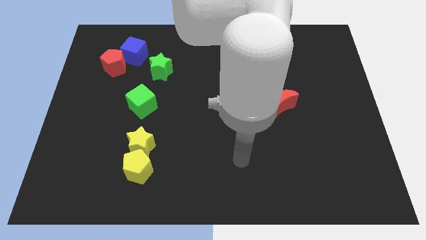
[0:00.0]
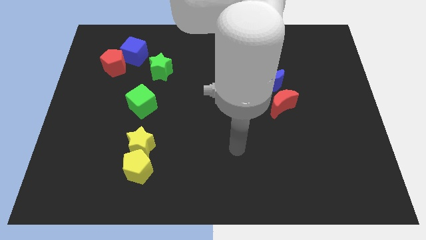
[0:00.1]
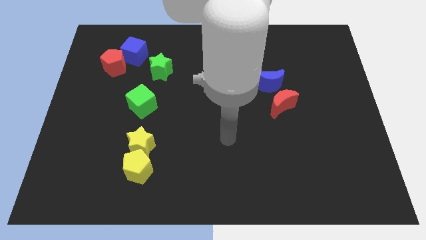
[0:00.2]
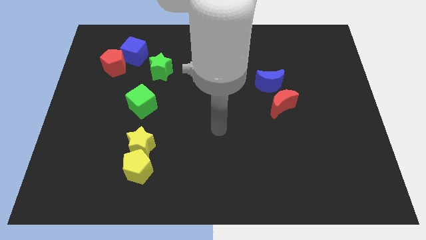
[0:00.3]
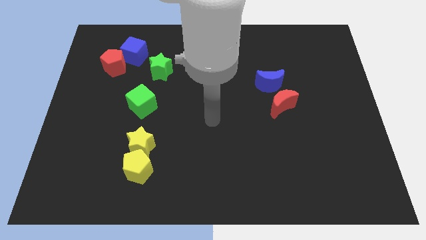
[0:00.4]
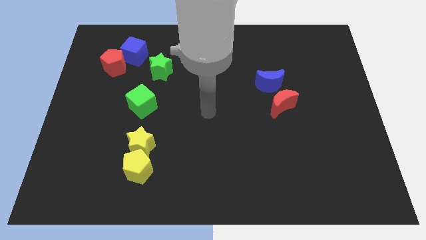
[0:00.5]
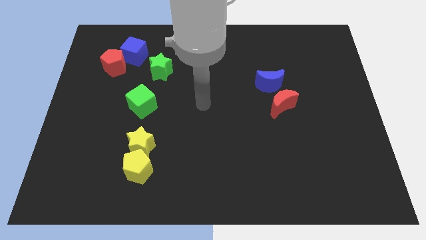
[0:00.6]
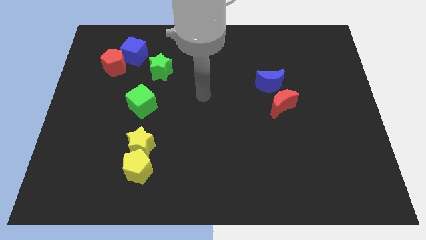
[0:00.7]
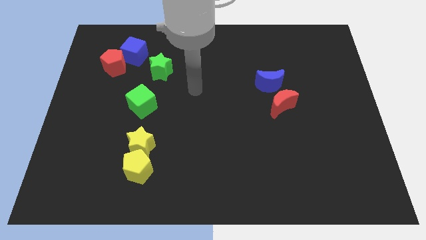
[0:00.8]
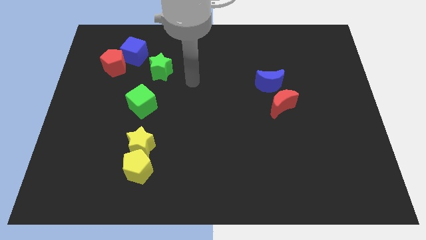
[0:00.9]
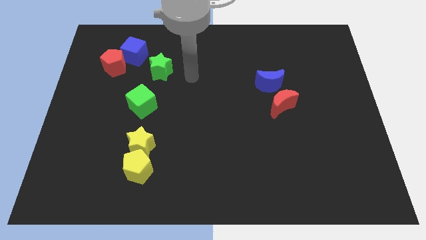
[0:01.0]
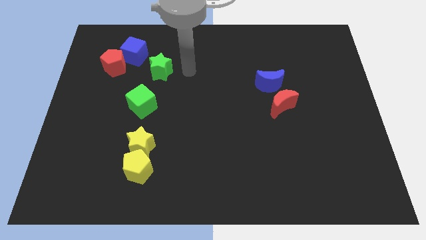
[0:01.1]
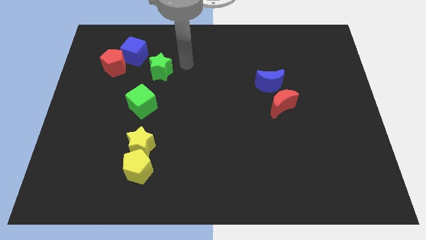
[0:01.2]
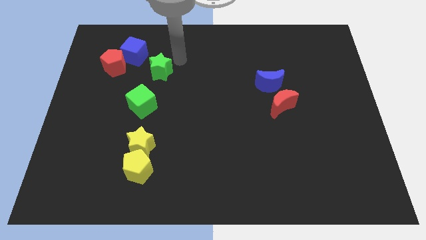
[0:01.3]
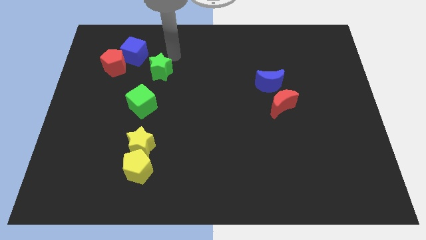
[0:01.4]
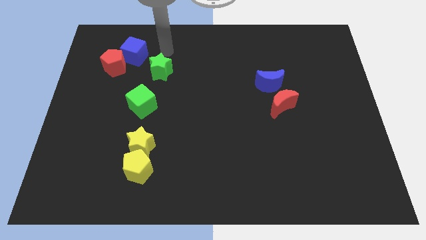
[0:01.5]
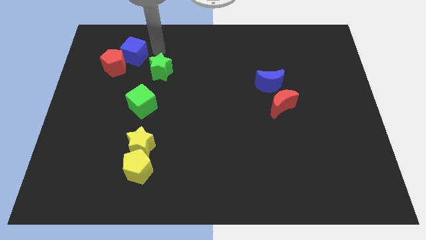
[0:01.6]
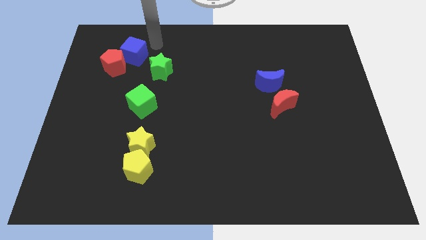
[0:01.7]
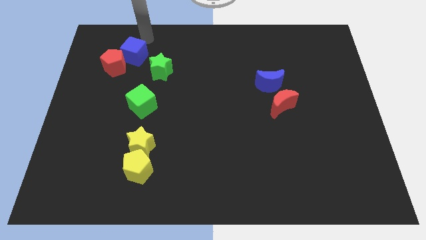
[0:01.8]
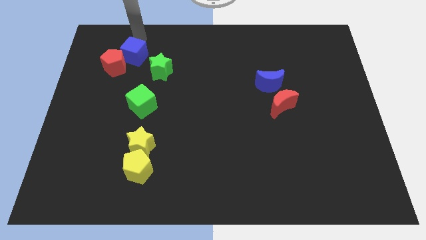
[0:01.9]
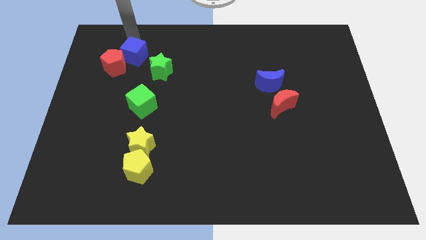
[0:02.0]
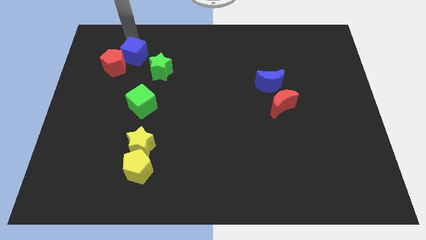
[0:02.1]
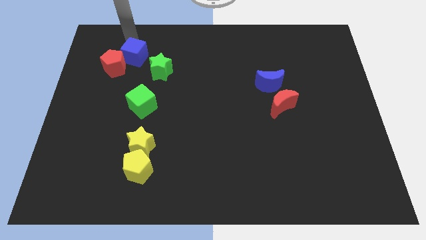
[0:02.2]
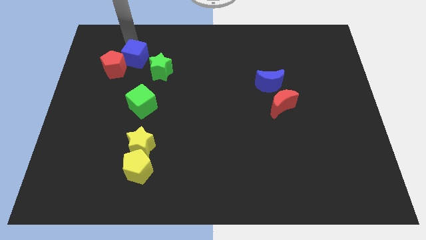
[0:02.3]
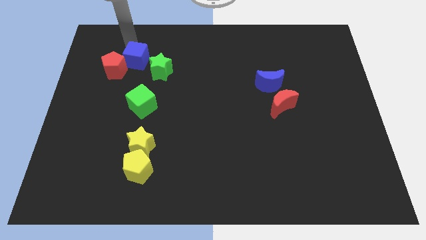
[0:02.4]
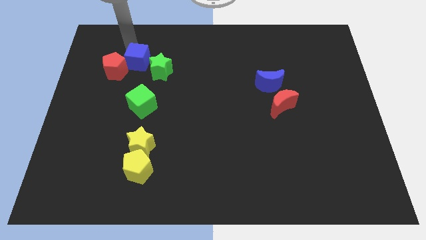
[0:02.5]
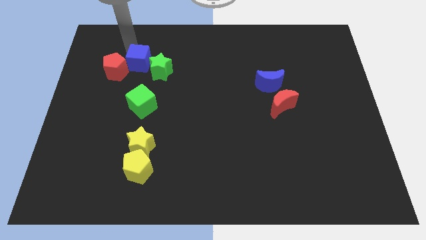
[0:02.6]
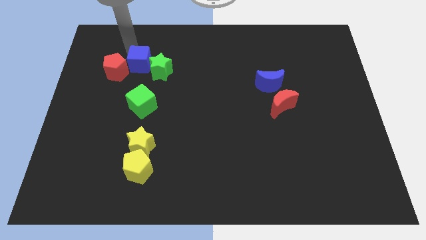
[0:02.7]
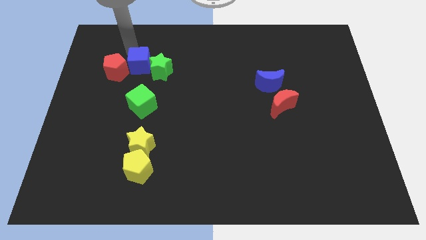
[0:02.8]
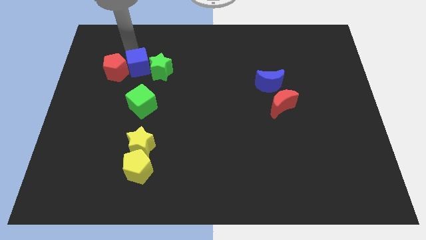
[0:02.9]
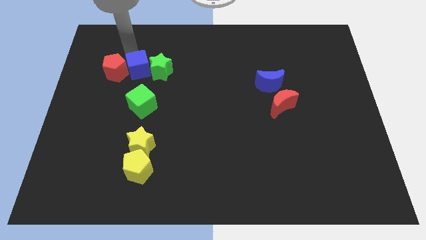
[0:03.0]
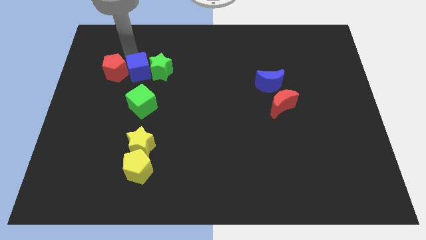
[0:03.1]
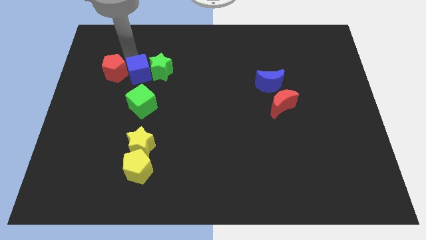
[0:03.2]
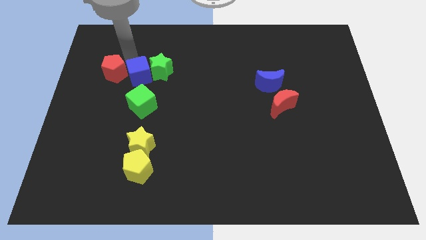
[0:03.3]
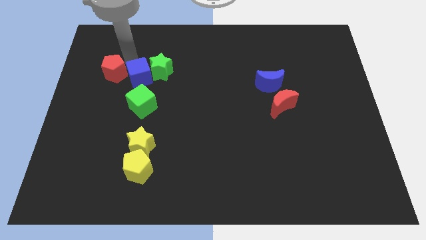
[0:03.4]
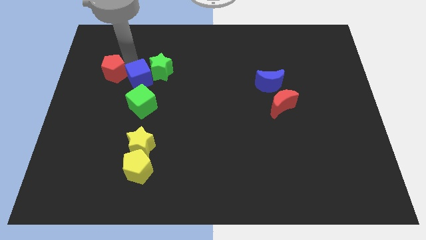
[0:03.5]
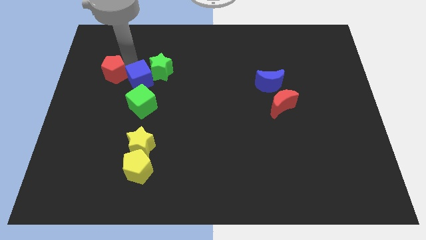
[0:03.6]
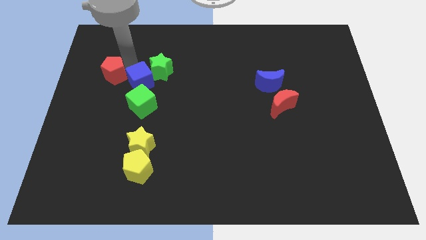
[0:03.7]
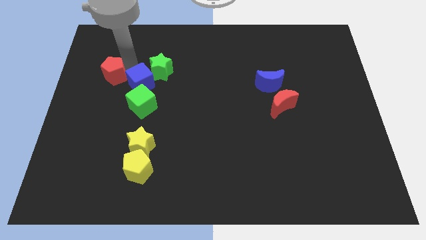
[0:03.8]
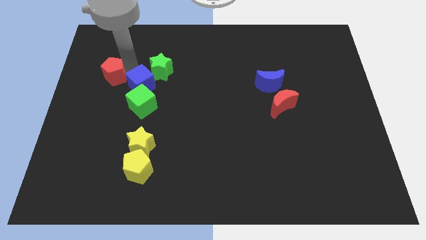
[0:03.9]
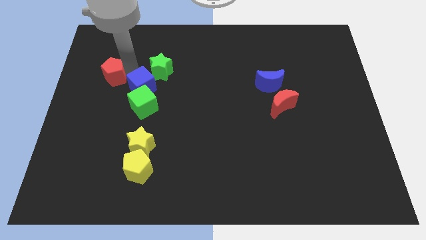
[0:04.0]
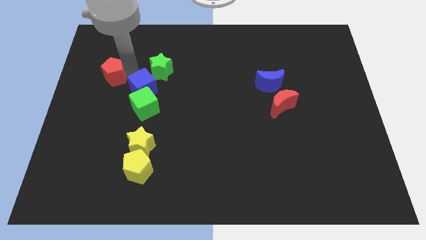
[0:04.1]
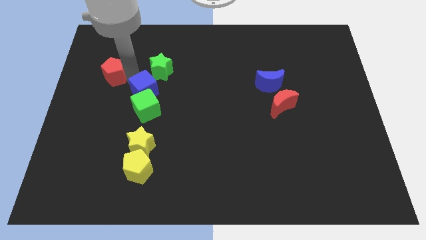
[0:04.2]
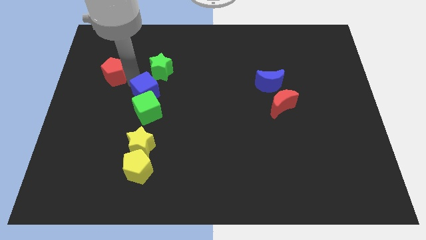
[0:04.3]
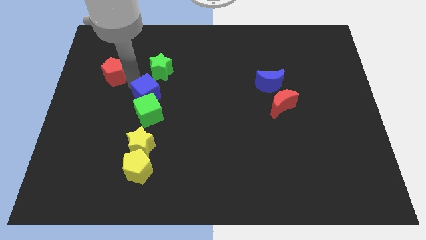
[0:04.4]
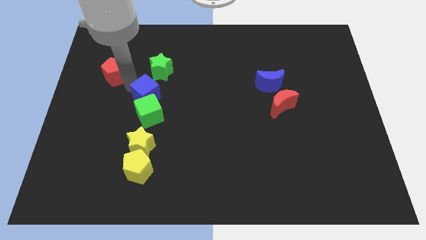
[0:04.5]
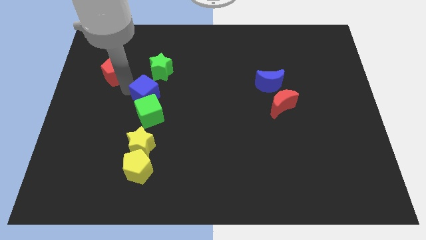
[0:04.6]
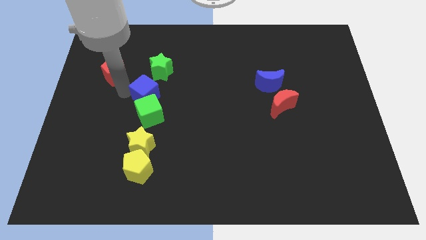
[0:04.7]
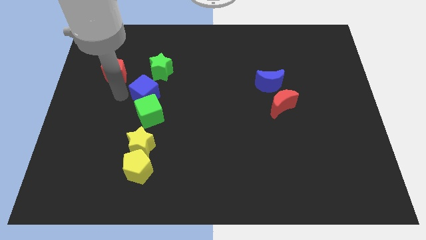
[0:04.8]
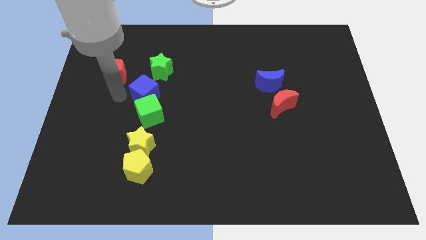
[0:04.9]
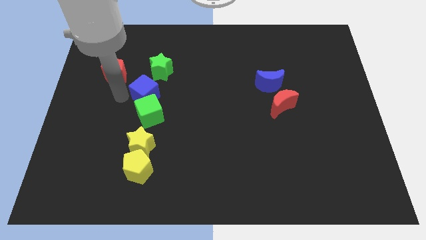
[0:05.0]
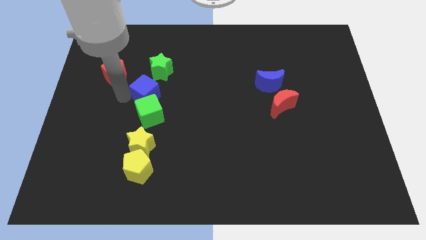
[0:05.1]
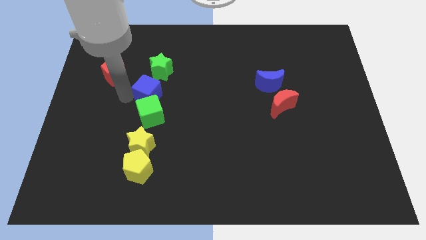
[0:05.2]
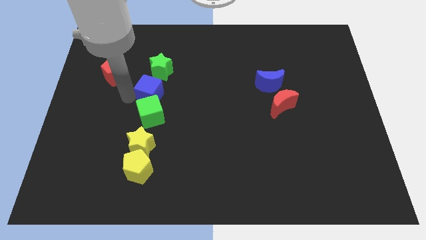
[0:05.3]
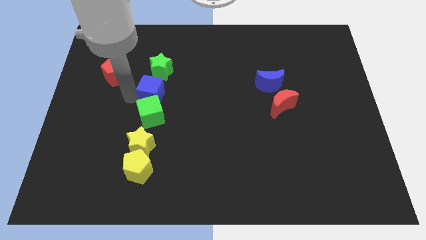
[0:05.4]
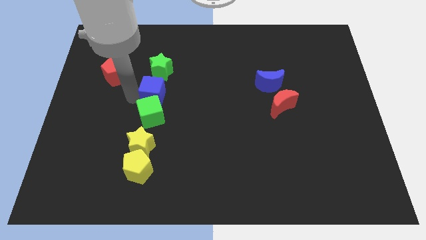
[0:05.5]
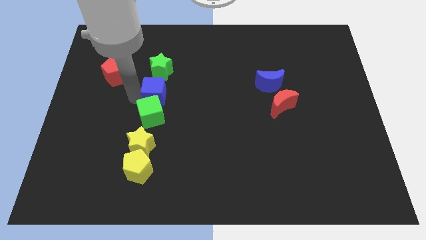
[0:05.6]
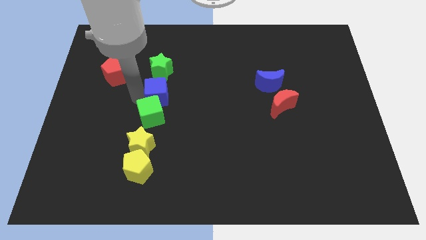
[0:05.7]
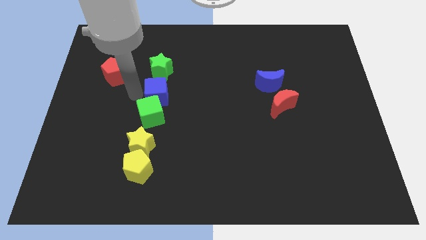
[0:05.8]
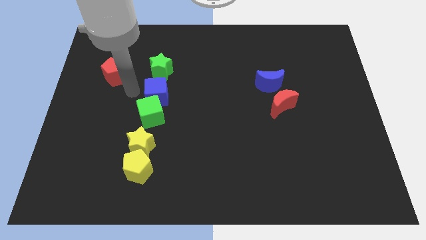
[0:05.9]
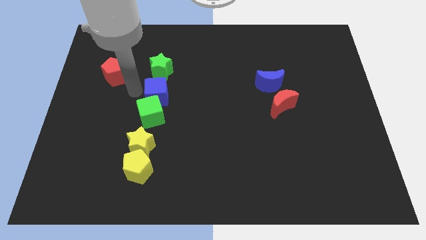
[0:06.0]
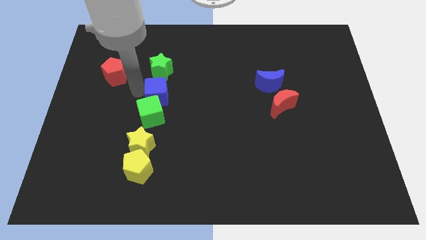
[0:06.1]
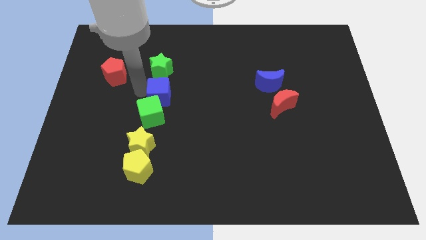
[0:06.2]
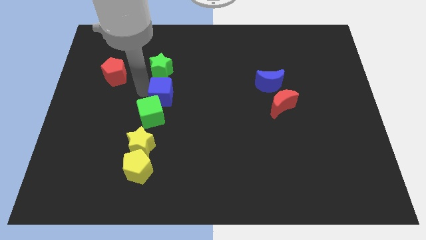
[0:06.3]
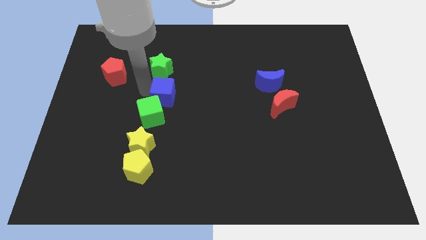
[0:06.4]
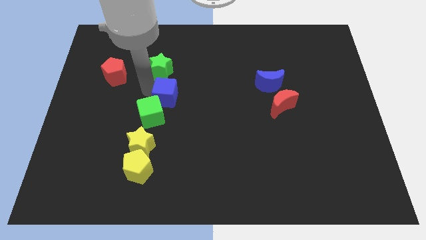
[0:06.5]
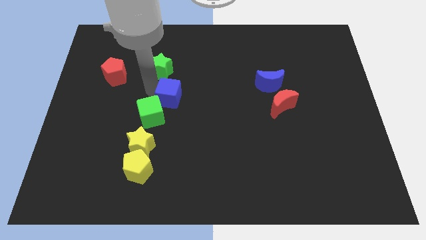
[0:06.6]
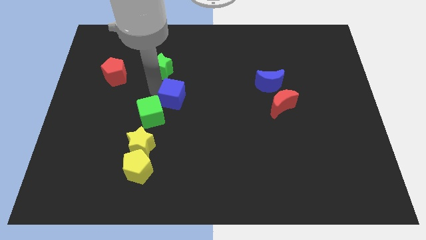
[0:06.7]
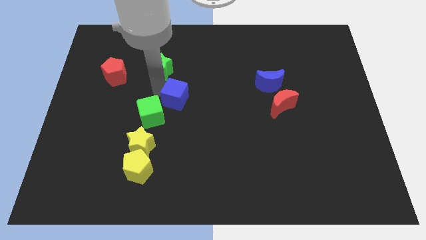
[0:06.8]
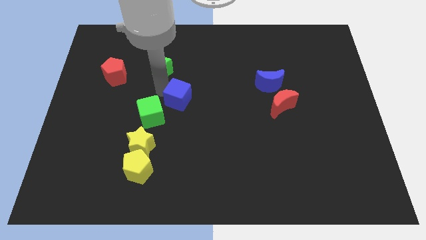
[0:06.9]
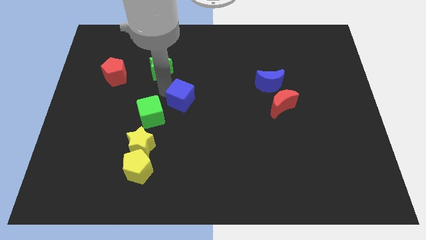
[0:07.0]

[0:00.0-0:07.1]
slide the blue cube downwards and right

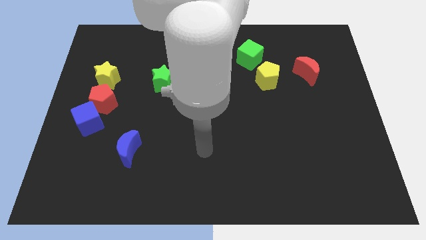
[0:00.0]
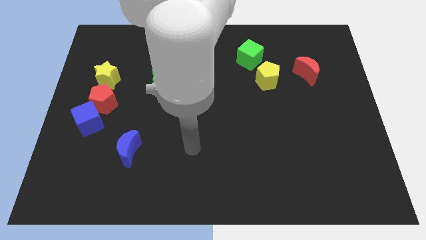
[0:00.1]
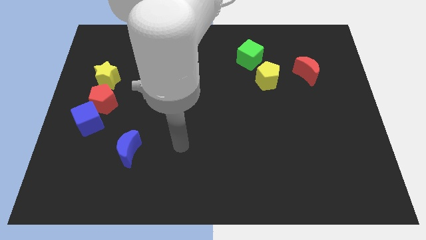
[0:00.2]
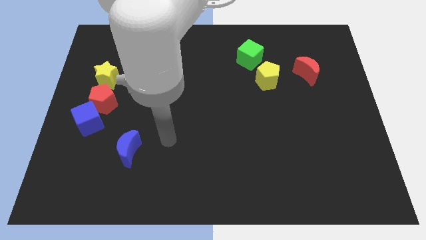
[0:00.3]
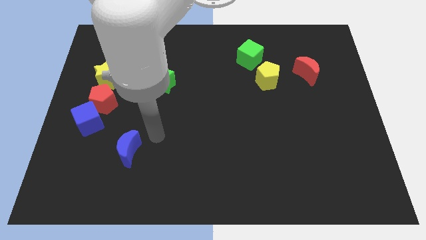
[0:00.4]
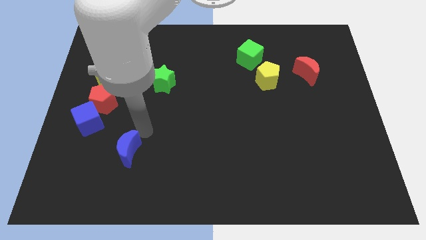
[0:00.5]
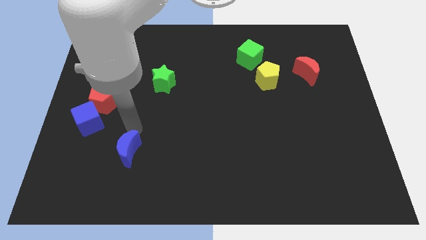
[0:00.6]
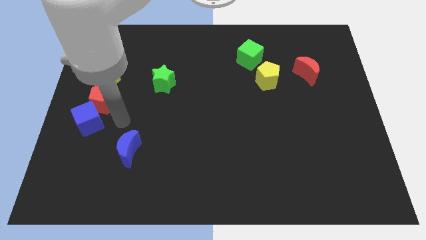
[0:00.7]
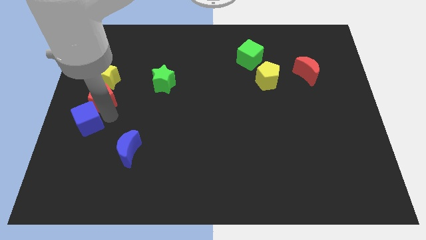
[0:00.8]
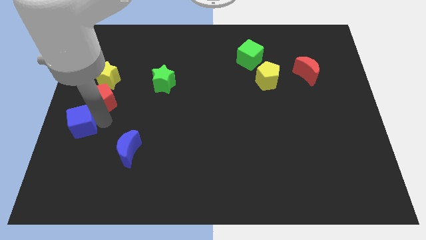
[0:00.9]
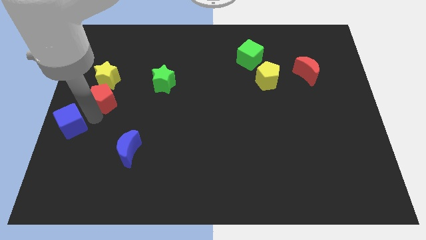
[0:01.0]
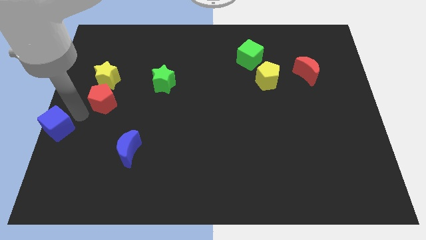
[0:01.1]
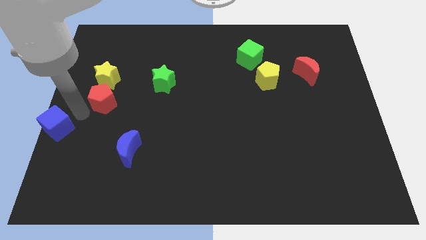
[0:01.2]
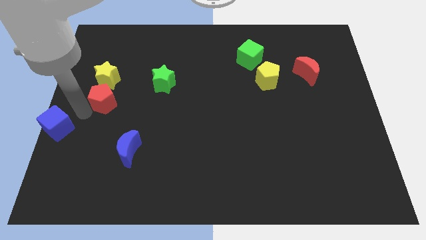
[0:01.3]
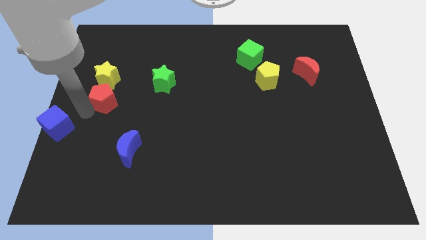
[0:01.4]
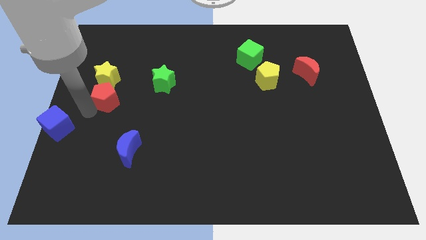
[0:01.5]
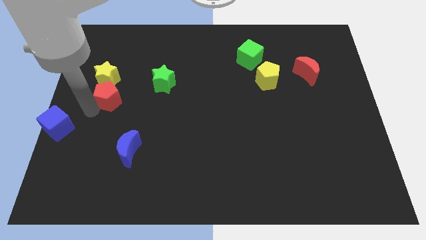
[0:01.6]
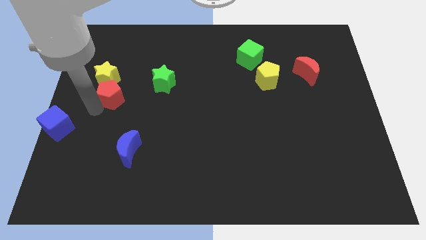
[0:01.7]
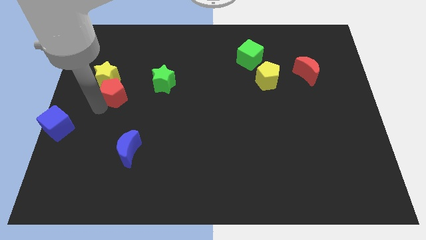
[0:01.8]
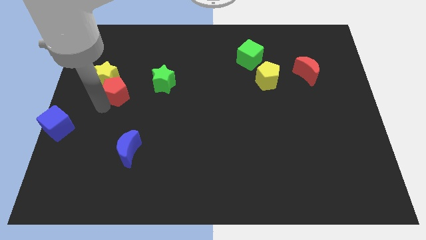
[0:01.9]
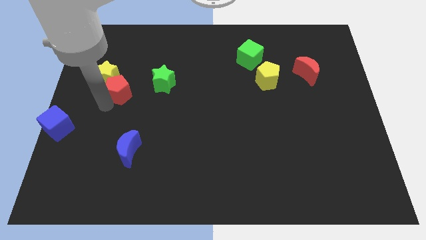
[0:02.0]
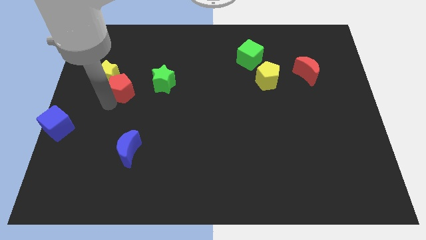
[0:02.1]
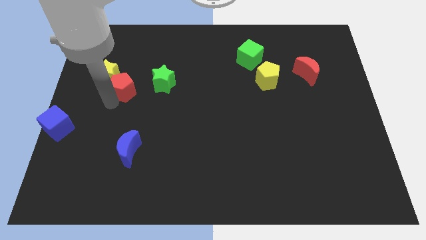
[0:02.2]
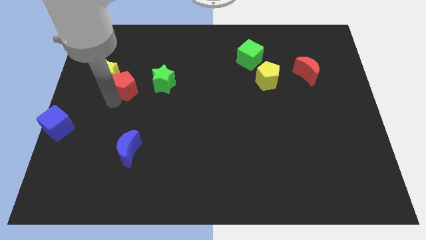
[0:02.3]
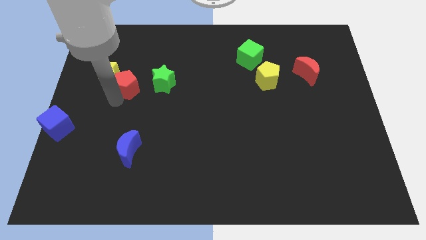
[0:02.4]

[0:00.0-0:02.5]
push the red pentagon a little bit up and right
